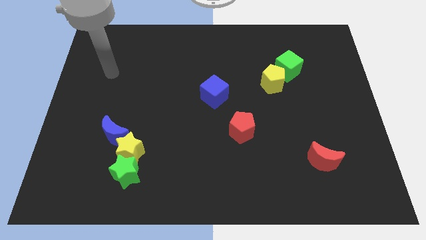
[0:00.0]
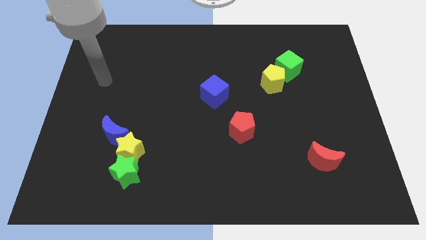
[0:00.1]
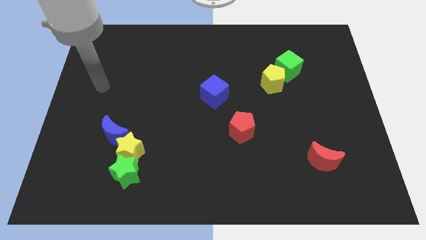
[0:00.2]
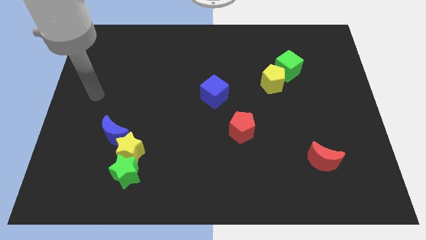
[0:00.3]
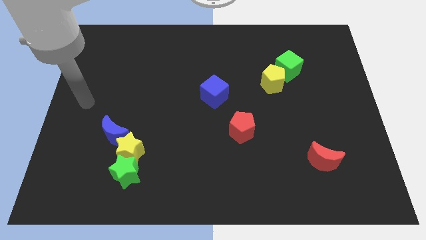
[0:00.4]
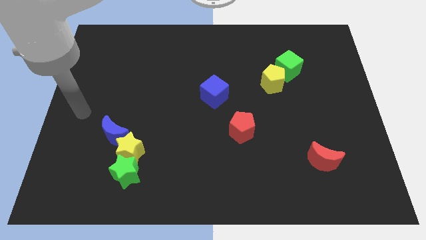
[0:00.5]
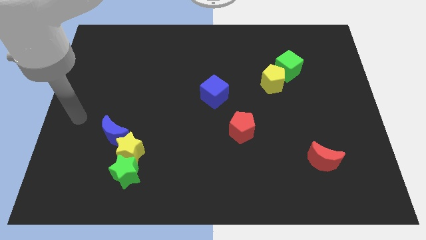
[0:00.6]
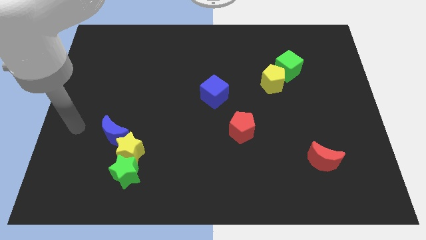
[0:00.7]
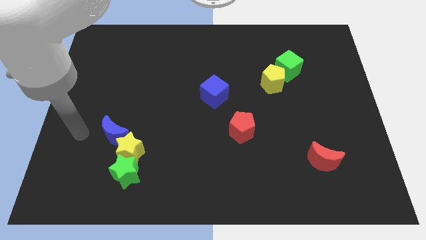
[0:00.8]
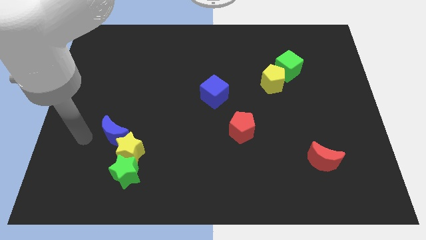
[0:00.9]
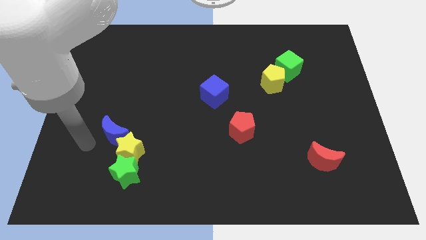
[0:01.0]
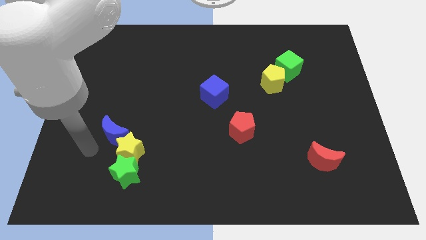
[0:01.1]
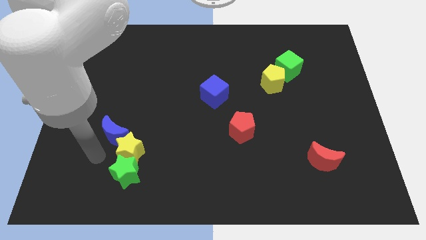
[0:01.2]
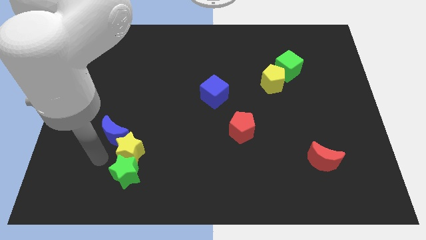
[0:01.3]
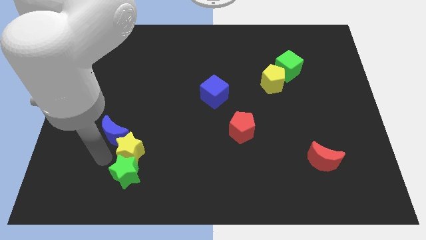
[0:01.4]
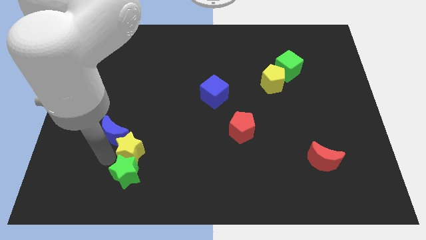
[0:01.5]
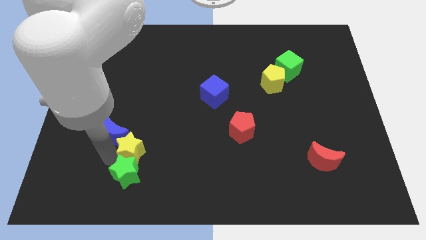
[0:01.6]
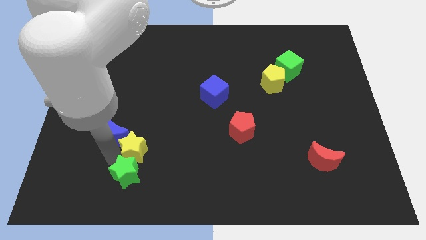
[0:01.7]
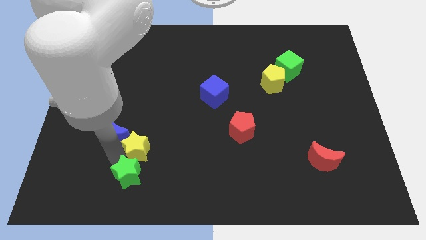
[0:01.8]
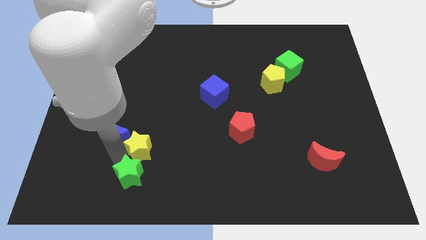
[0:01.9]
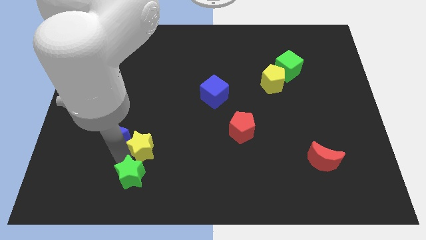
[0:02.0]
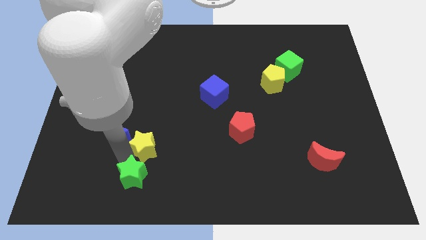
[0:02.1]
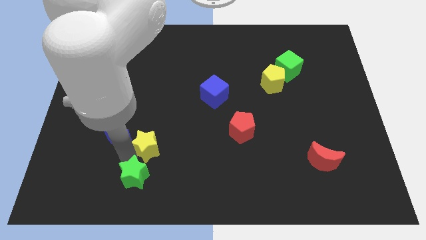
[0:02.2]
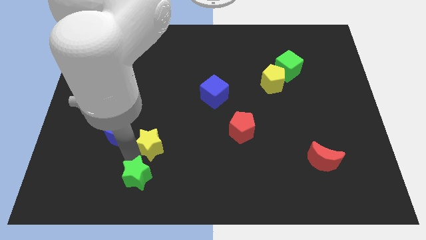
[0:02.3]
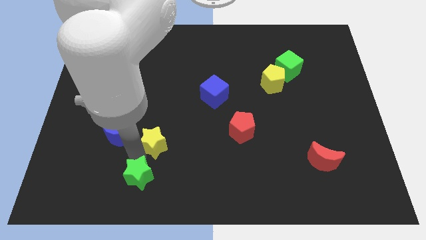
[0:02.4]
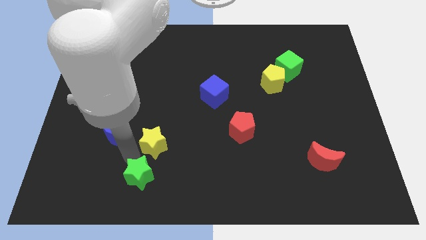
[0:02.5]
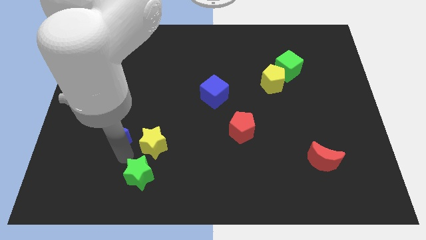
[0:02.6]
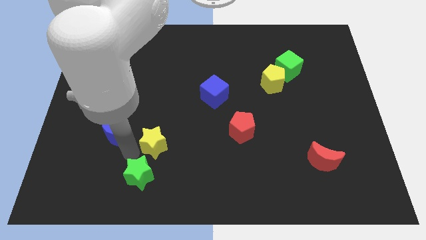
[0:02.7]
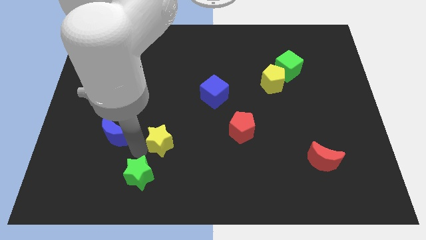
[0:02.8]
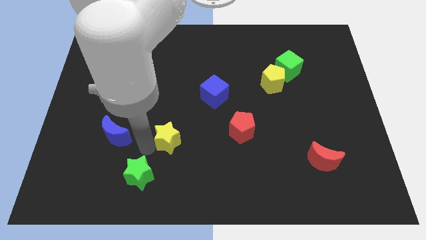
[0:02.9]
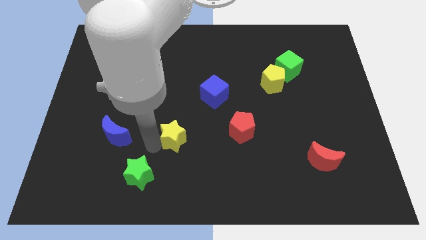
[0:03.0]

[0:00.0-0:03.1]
move the yellow star away from the green star and blue moon

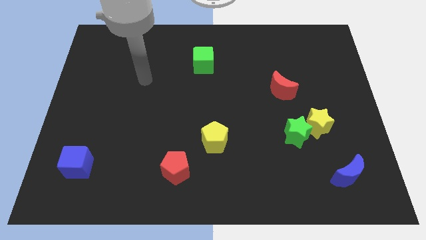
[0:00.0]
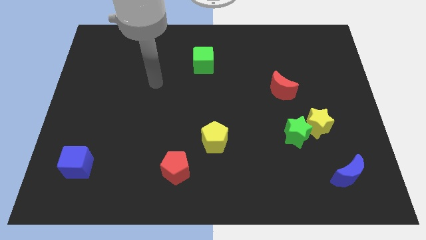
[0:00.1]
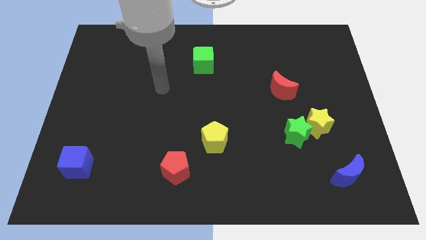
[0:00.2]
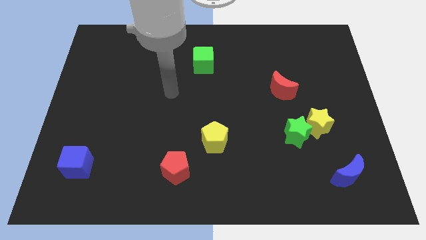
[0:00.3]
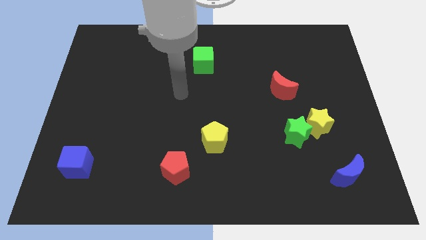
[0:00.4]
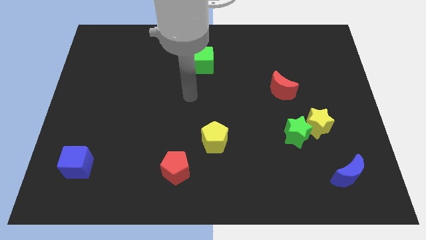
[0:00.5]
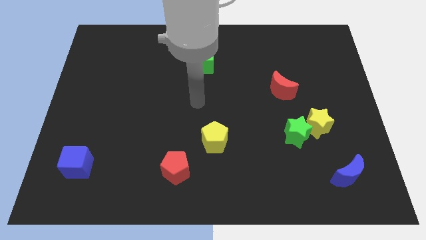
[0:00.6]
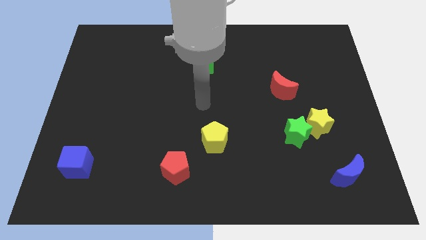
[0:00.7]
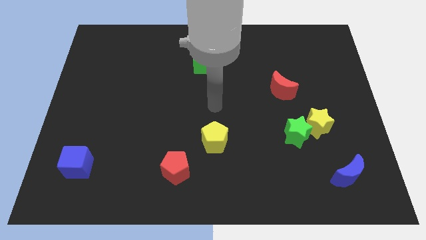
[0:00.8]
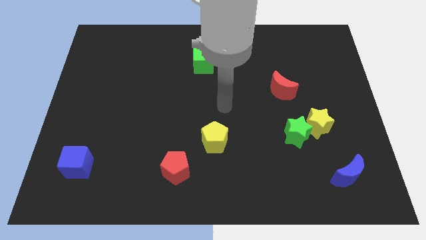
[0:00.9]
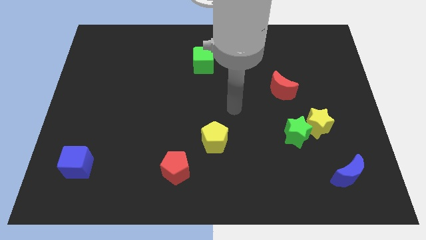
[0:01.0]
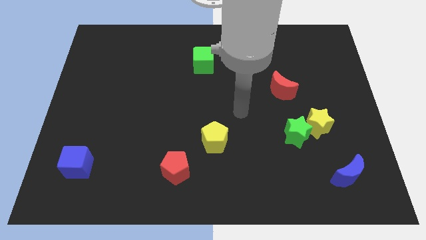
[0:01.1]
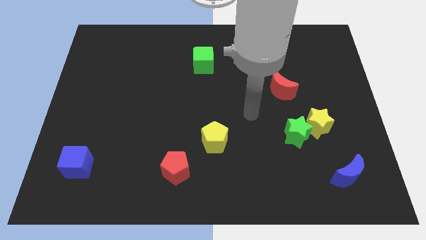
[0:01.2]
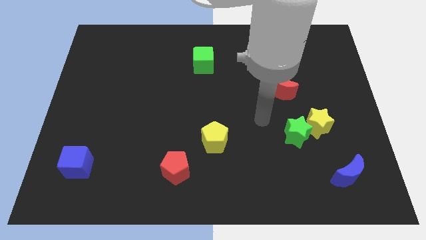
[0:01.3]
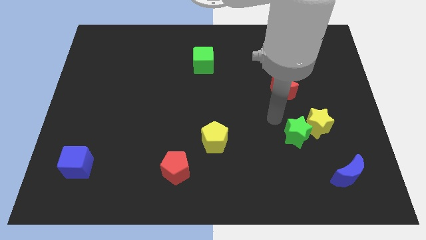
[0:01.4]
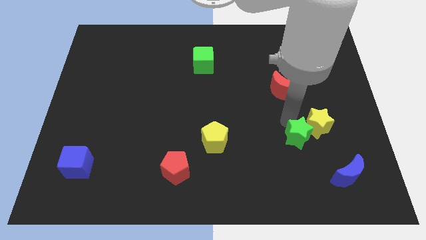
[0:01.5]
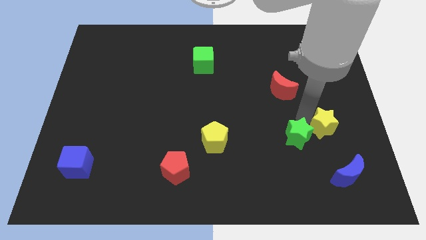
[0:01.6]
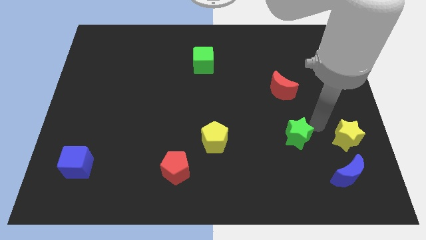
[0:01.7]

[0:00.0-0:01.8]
separate the green star from the yellow star

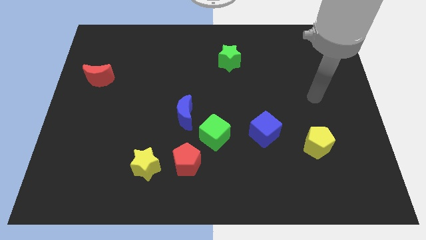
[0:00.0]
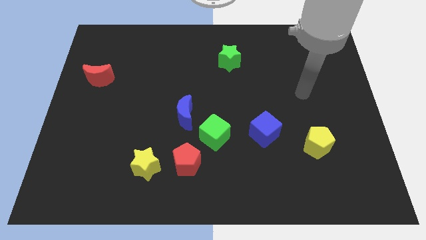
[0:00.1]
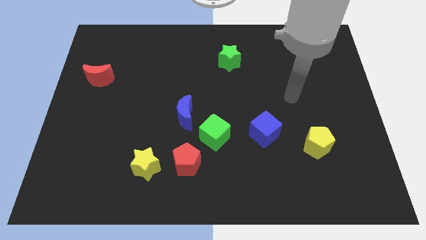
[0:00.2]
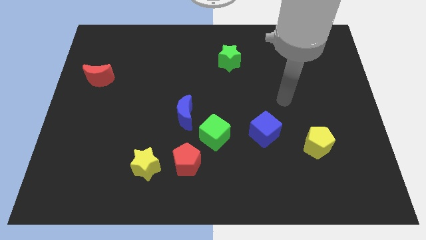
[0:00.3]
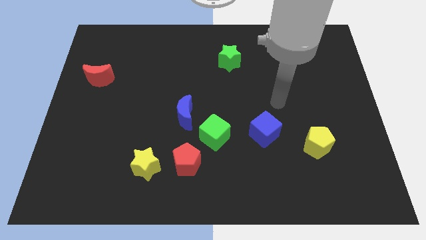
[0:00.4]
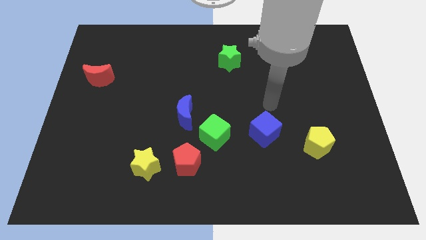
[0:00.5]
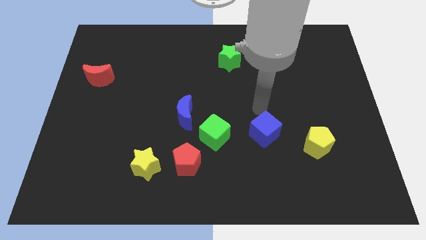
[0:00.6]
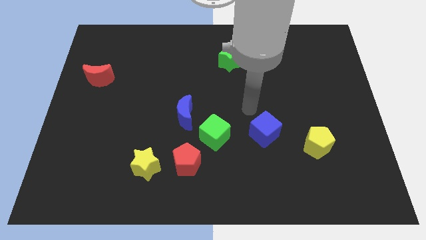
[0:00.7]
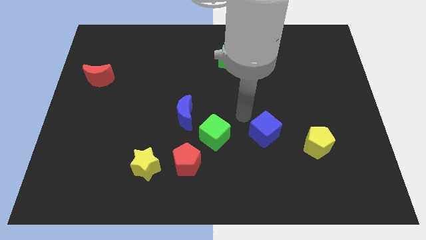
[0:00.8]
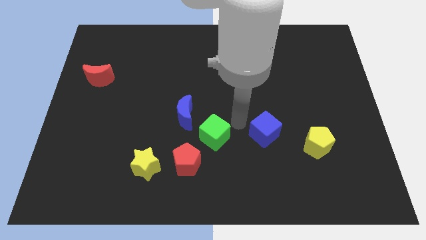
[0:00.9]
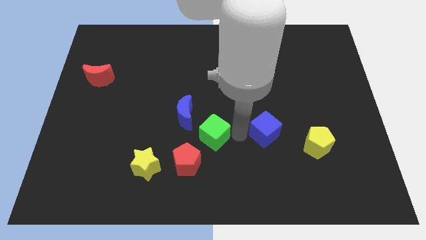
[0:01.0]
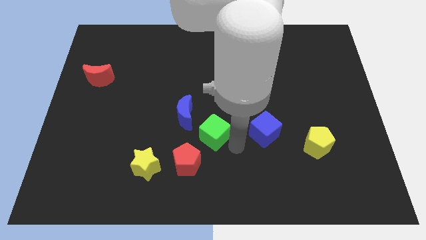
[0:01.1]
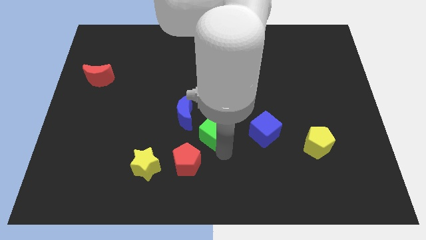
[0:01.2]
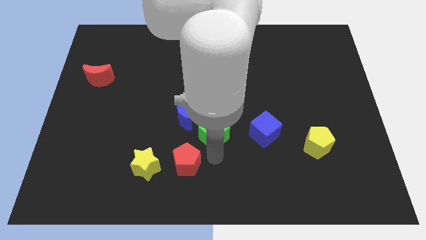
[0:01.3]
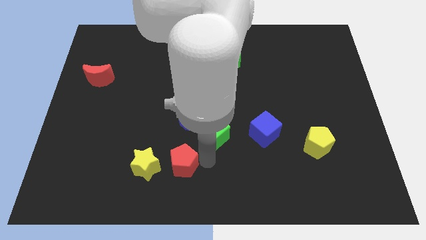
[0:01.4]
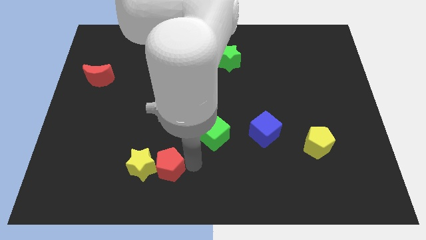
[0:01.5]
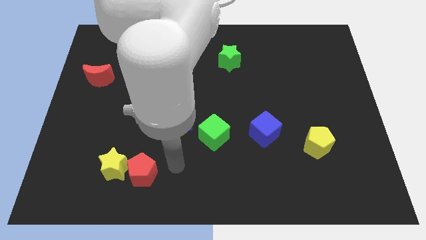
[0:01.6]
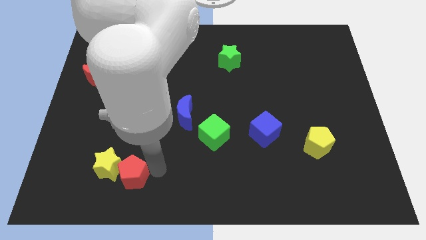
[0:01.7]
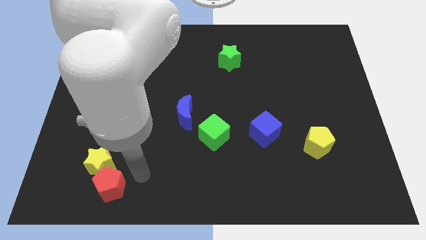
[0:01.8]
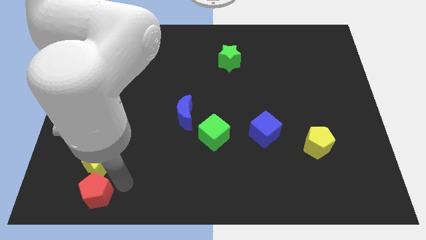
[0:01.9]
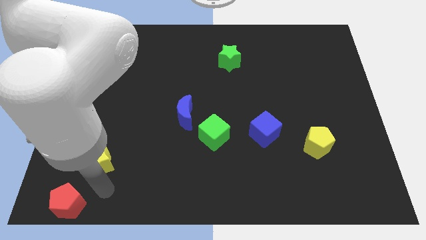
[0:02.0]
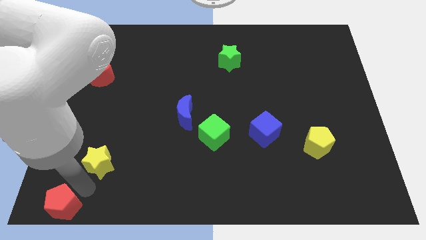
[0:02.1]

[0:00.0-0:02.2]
pull the yellow star apart from the red pentagon

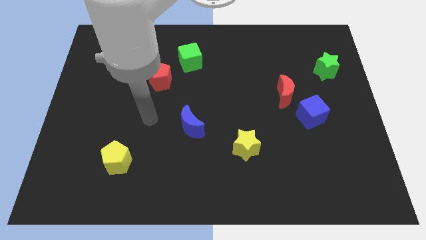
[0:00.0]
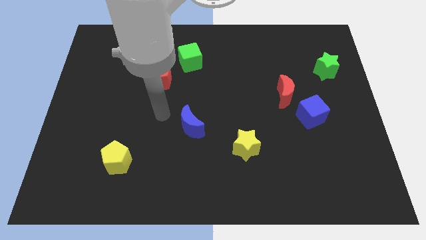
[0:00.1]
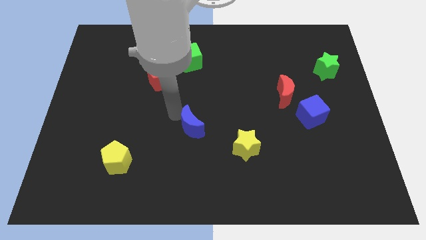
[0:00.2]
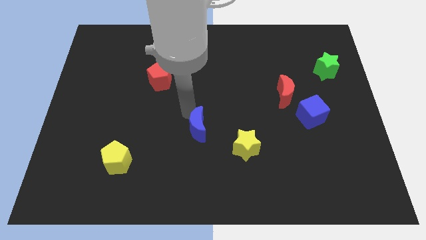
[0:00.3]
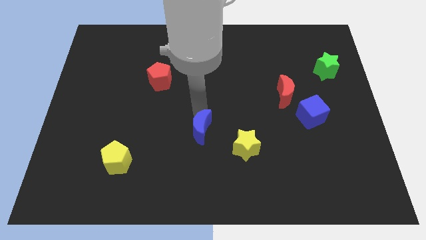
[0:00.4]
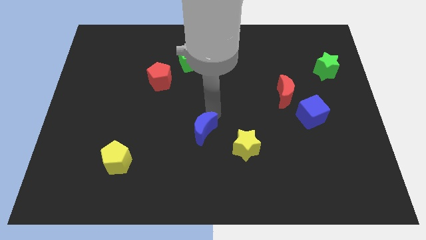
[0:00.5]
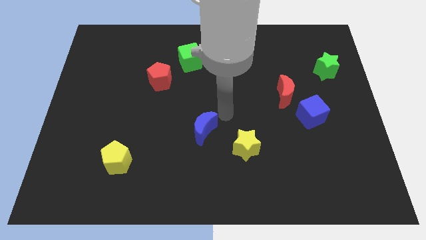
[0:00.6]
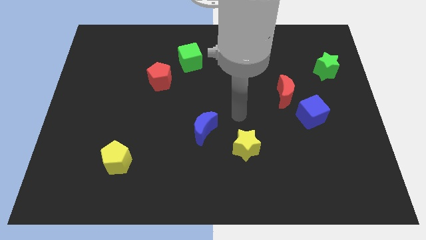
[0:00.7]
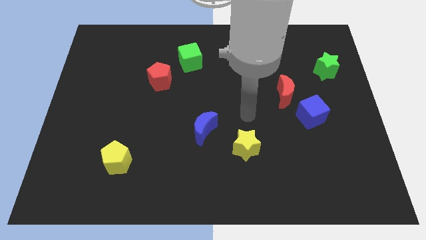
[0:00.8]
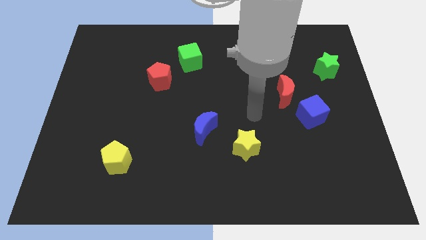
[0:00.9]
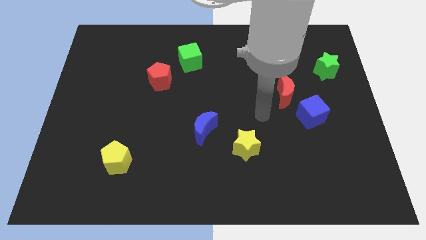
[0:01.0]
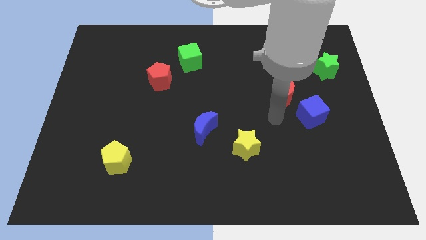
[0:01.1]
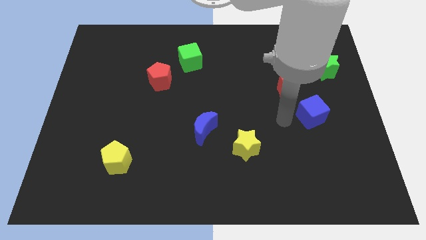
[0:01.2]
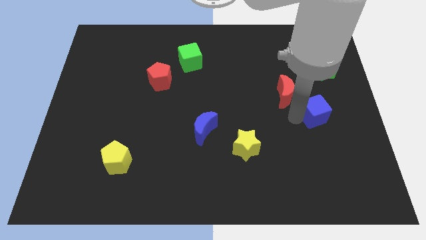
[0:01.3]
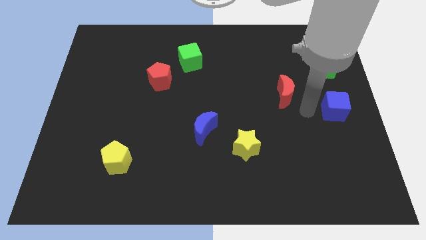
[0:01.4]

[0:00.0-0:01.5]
separate the red moon from the blue cube

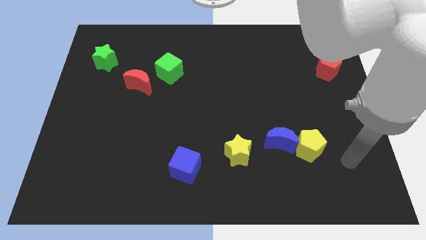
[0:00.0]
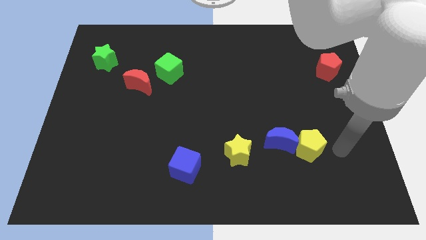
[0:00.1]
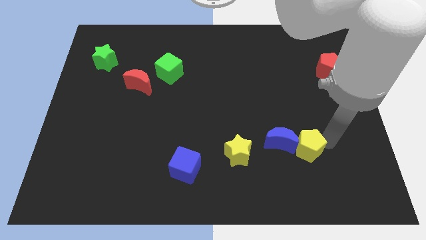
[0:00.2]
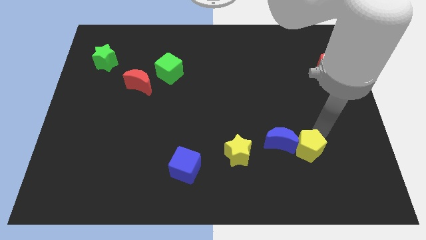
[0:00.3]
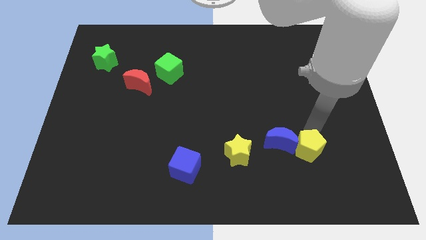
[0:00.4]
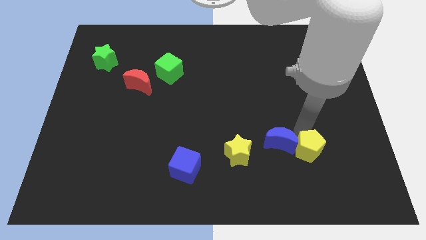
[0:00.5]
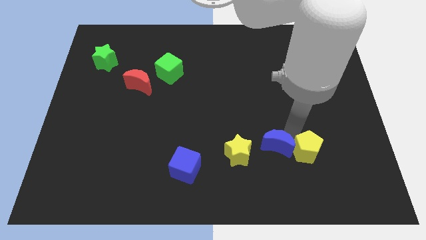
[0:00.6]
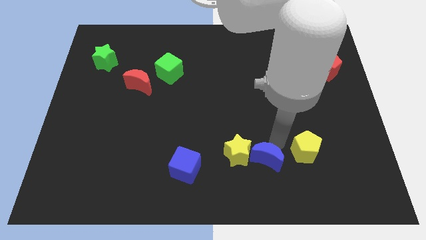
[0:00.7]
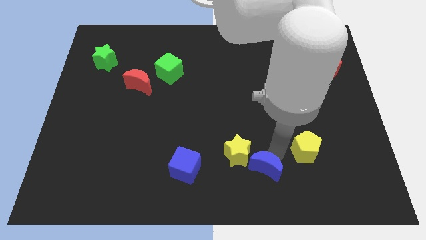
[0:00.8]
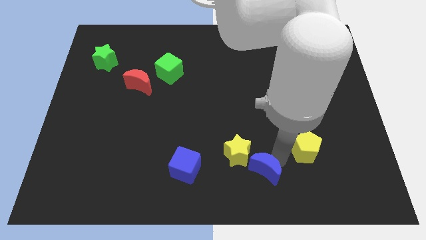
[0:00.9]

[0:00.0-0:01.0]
pull the yellow pentagon apart from the blue moon
